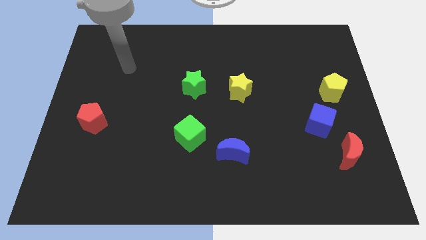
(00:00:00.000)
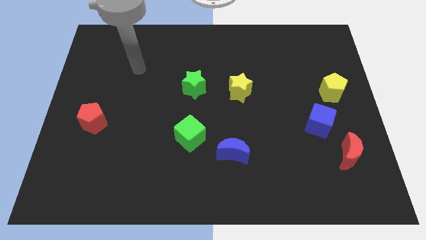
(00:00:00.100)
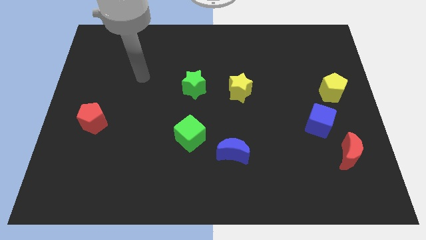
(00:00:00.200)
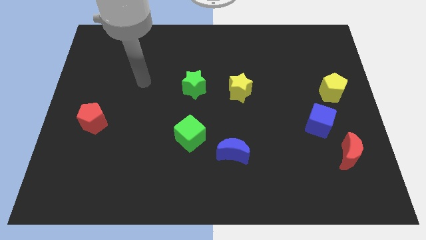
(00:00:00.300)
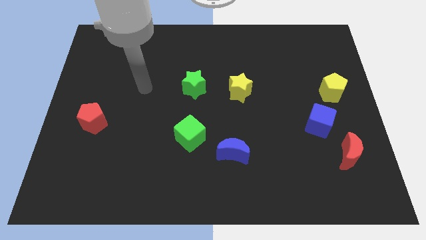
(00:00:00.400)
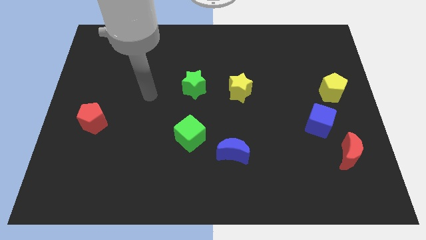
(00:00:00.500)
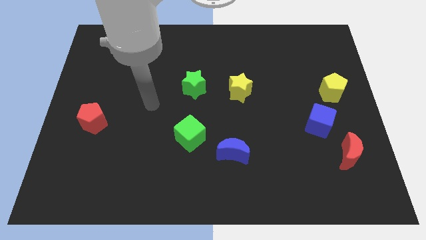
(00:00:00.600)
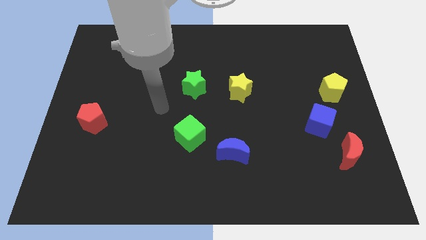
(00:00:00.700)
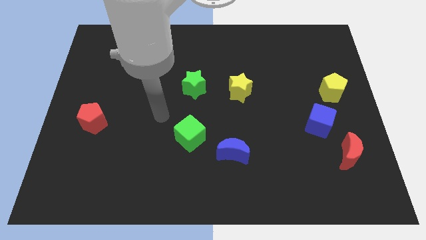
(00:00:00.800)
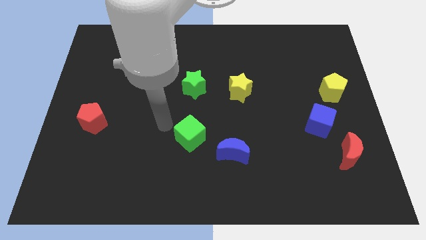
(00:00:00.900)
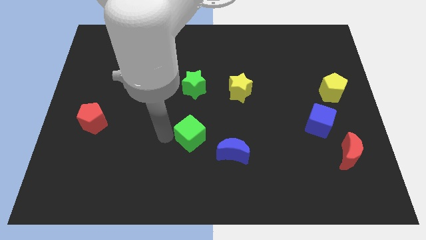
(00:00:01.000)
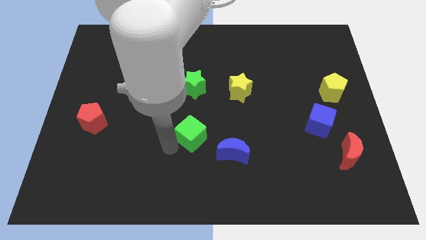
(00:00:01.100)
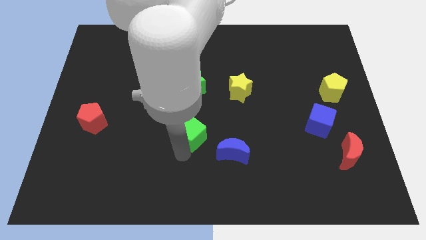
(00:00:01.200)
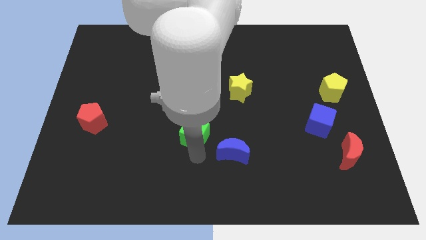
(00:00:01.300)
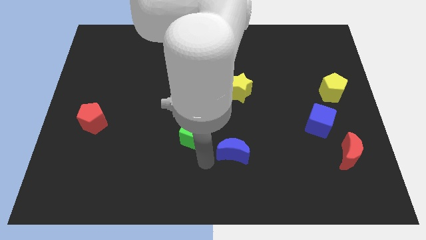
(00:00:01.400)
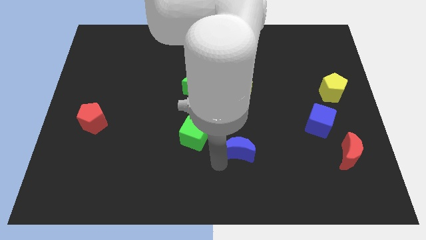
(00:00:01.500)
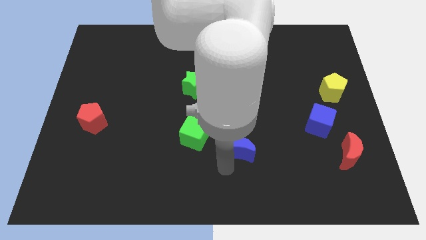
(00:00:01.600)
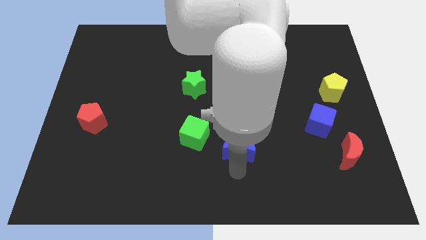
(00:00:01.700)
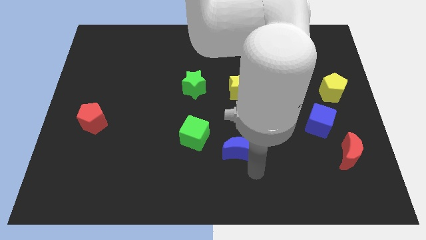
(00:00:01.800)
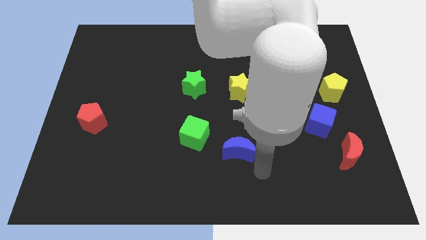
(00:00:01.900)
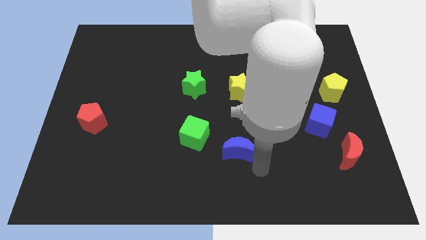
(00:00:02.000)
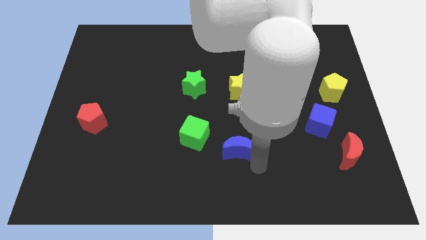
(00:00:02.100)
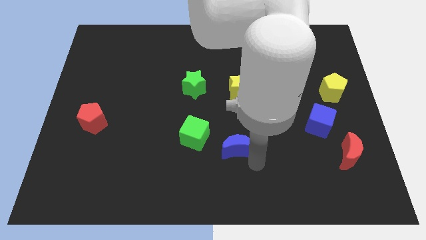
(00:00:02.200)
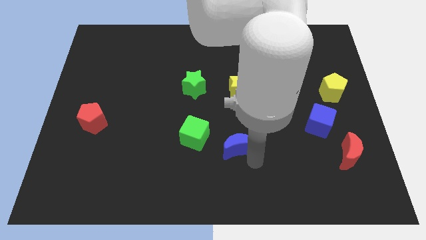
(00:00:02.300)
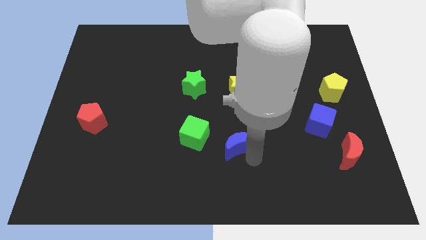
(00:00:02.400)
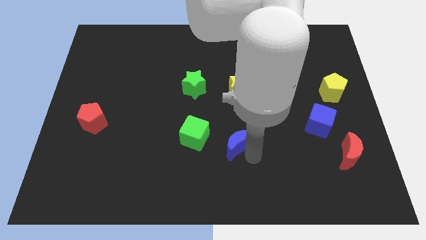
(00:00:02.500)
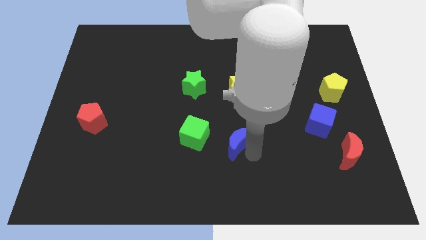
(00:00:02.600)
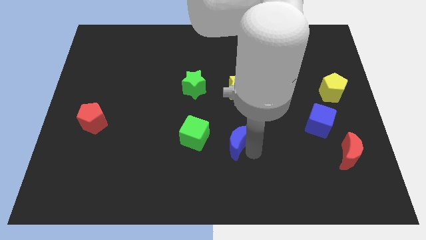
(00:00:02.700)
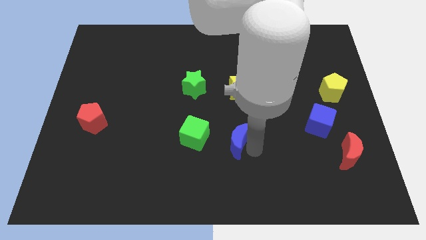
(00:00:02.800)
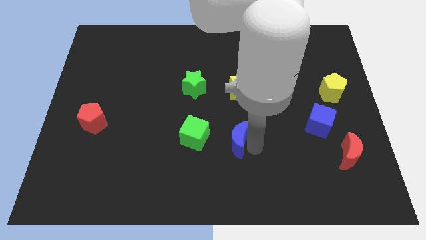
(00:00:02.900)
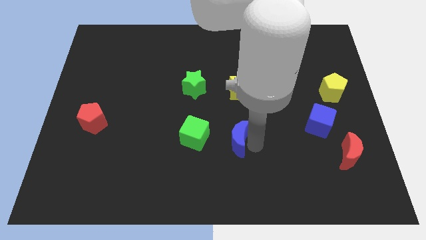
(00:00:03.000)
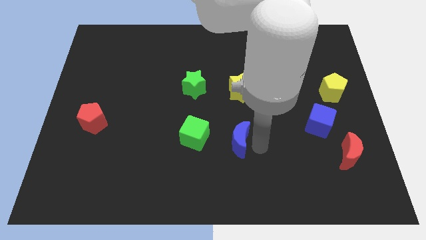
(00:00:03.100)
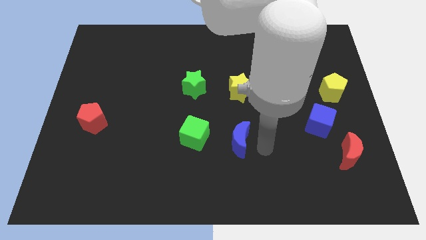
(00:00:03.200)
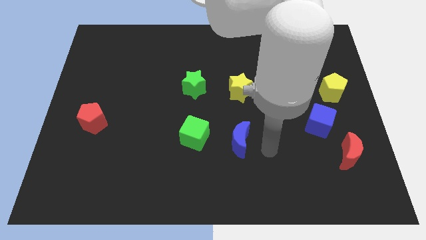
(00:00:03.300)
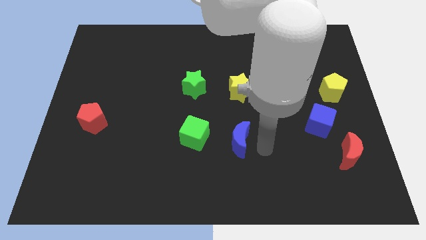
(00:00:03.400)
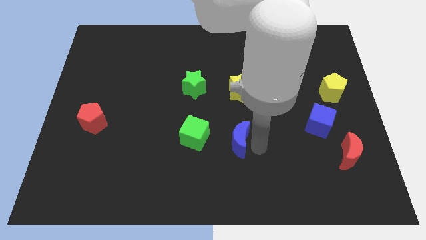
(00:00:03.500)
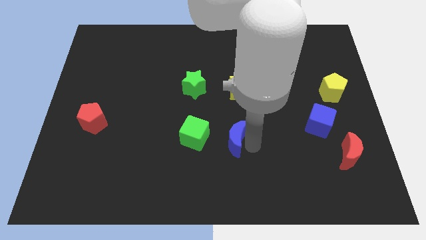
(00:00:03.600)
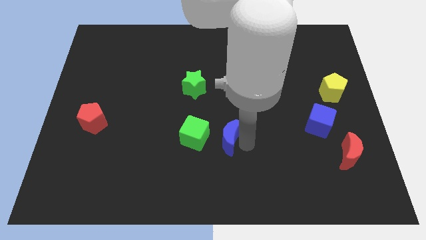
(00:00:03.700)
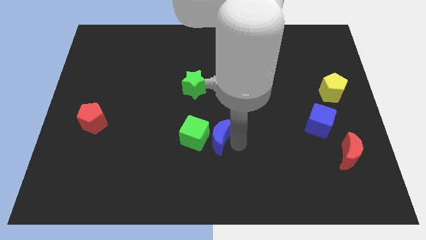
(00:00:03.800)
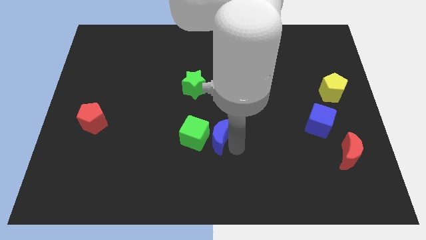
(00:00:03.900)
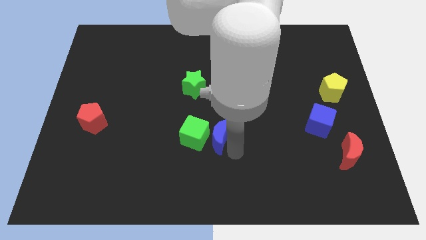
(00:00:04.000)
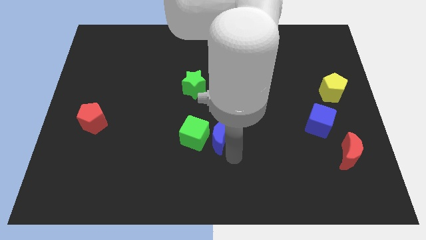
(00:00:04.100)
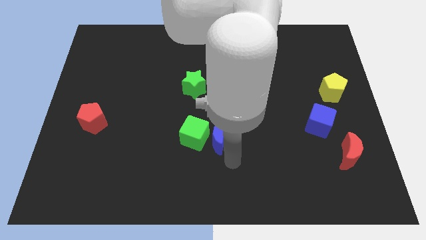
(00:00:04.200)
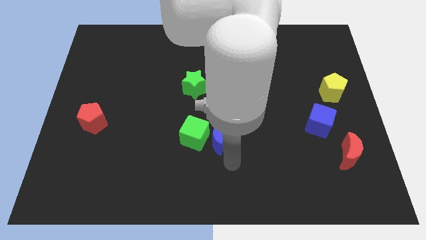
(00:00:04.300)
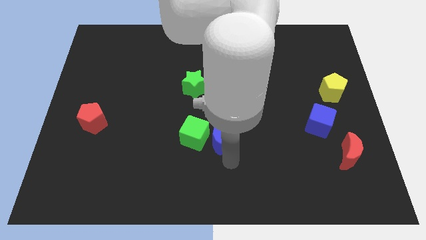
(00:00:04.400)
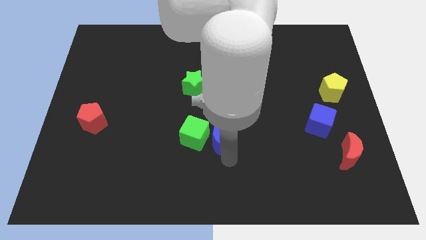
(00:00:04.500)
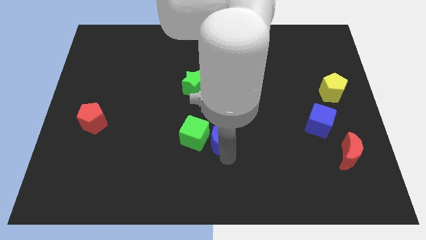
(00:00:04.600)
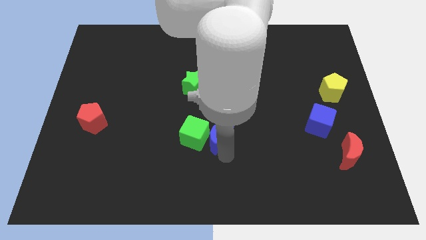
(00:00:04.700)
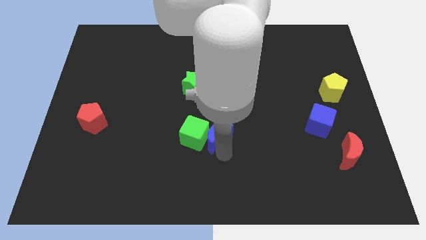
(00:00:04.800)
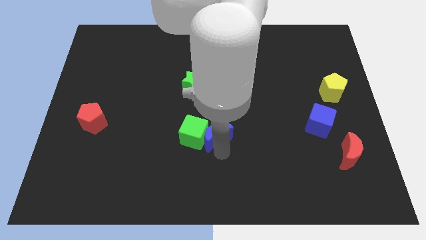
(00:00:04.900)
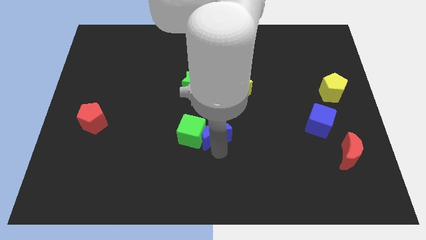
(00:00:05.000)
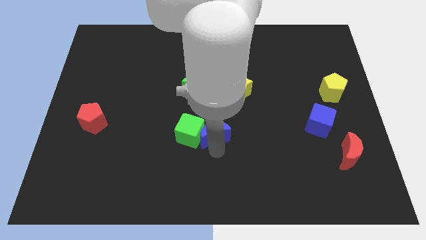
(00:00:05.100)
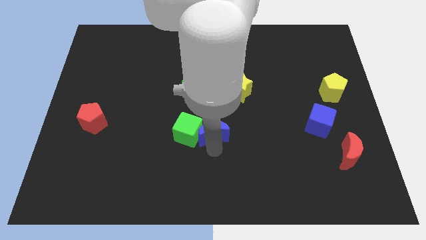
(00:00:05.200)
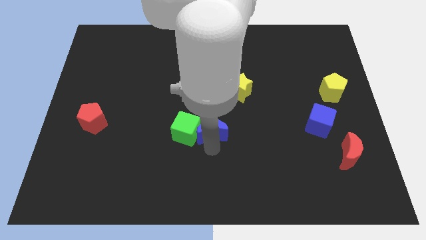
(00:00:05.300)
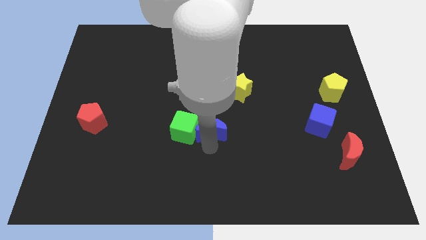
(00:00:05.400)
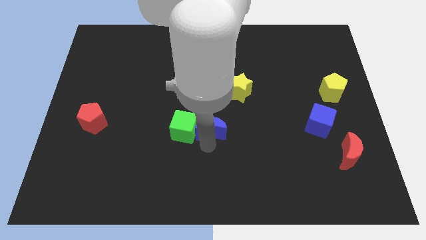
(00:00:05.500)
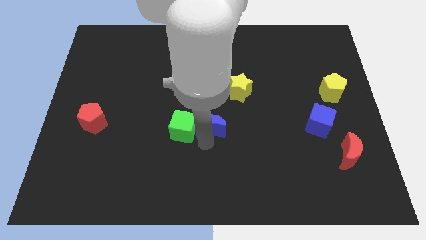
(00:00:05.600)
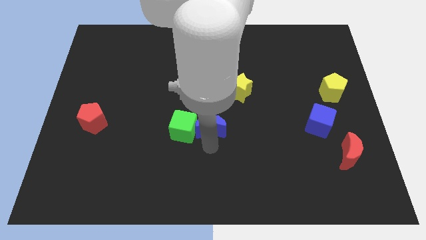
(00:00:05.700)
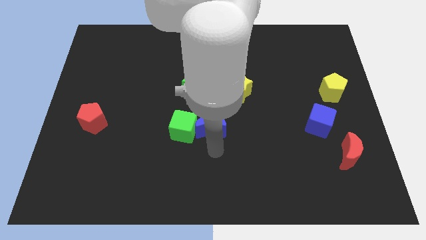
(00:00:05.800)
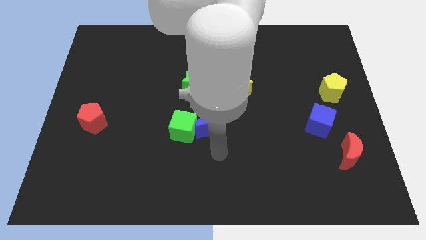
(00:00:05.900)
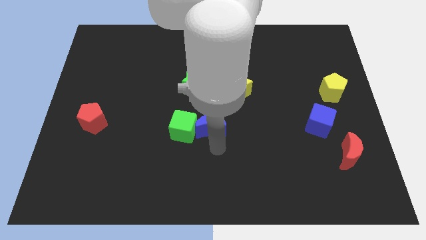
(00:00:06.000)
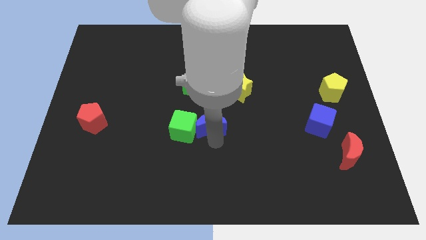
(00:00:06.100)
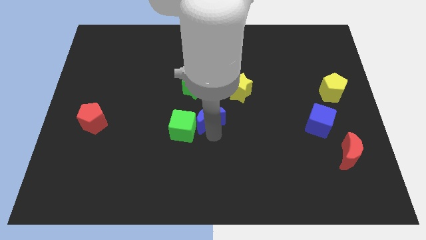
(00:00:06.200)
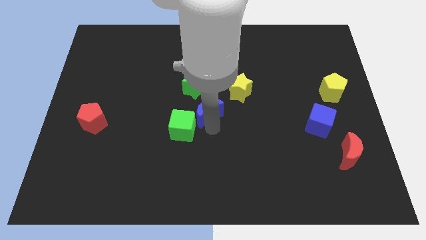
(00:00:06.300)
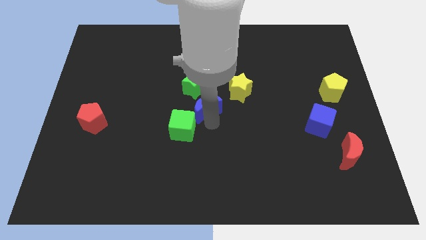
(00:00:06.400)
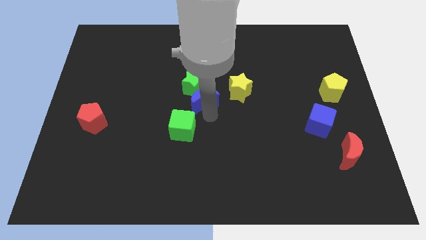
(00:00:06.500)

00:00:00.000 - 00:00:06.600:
push the blue moon next to the green star

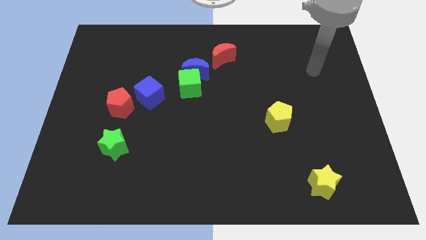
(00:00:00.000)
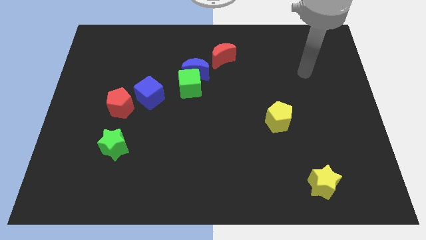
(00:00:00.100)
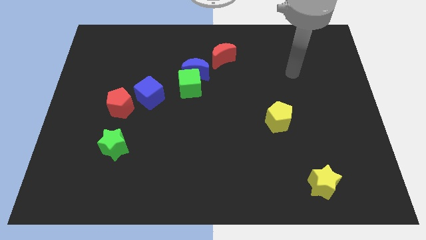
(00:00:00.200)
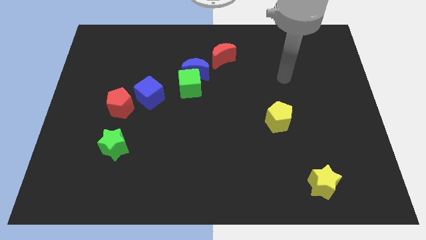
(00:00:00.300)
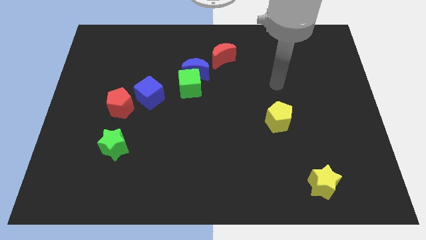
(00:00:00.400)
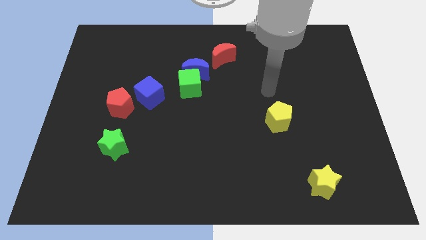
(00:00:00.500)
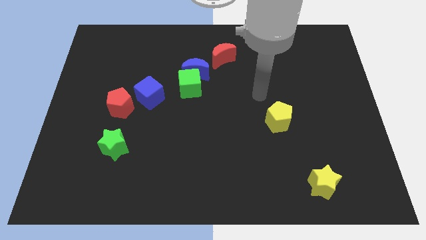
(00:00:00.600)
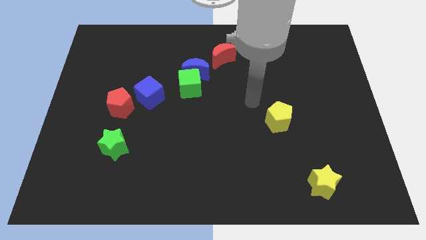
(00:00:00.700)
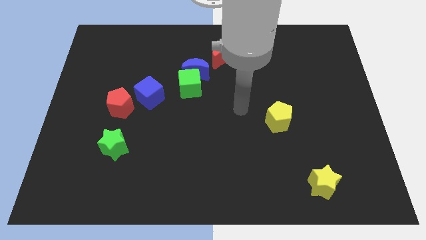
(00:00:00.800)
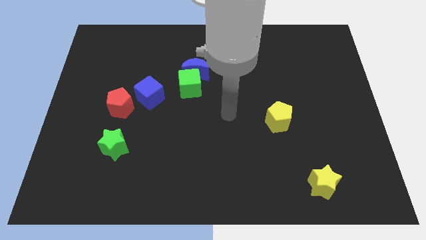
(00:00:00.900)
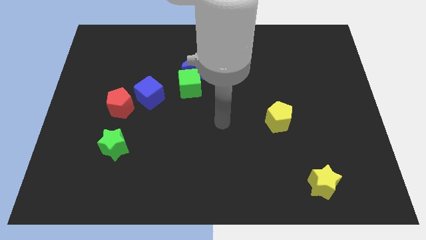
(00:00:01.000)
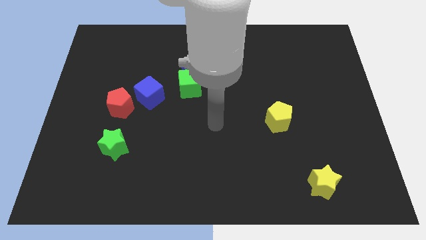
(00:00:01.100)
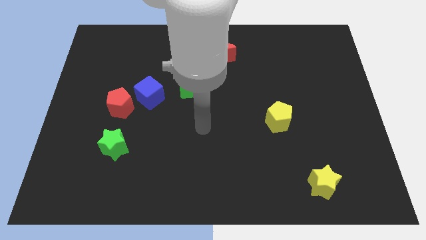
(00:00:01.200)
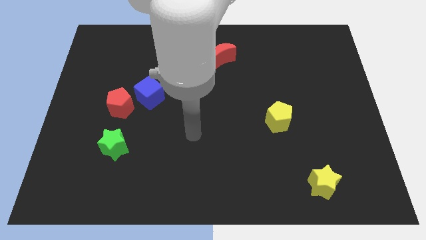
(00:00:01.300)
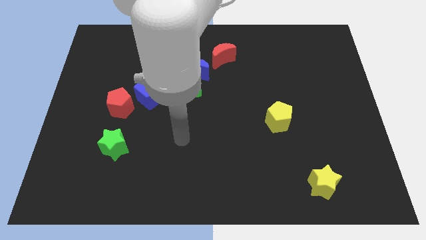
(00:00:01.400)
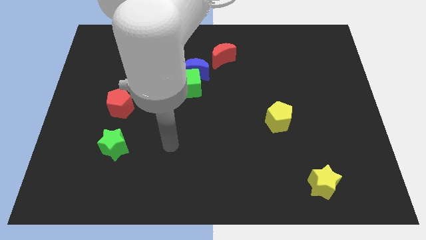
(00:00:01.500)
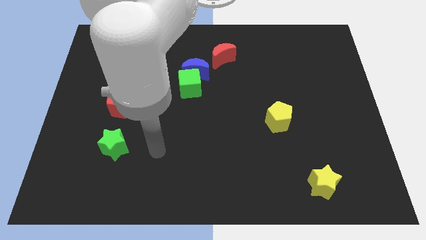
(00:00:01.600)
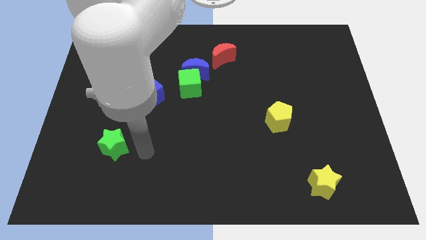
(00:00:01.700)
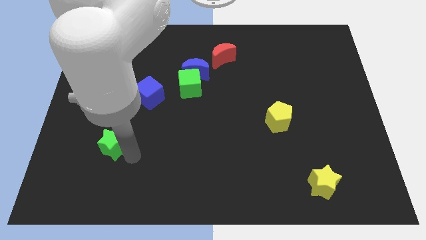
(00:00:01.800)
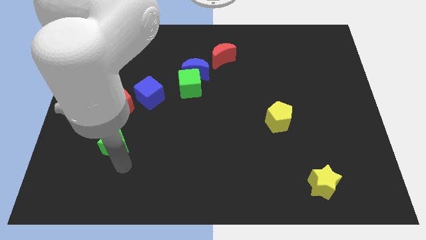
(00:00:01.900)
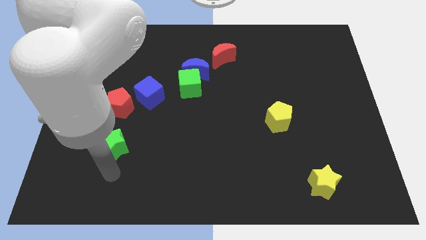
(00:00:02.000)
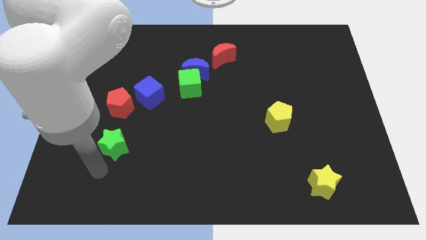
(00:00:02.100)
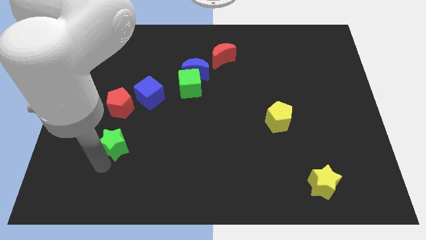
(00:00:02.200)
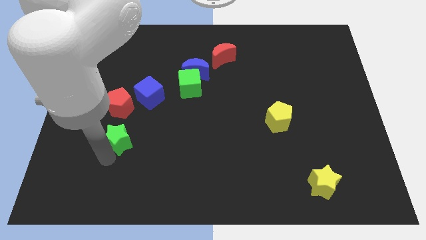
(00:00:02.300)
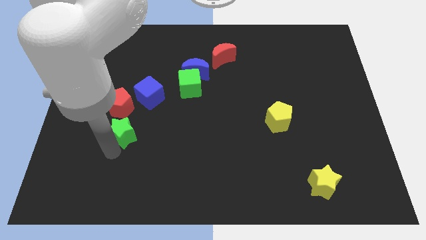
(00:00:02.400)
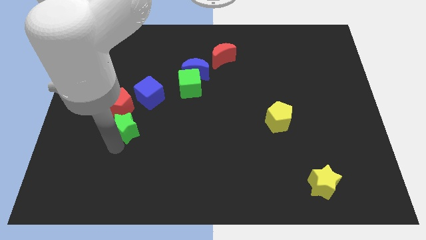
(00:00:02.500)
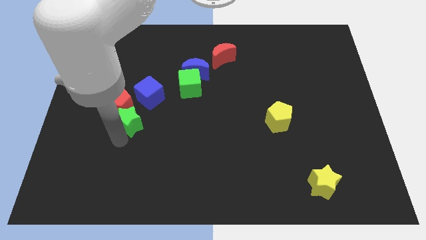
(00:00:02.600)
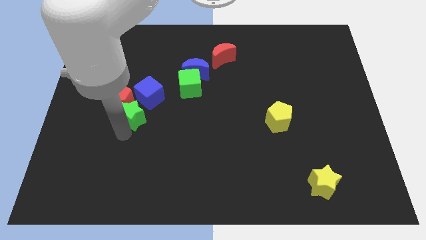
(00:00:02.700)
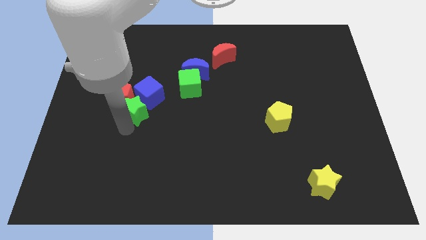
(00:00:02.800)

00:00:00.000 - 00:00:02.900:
put the green star close to the blue cube
